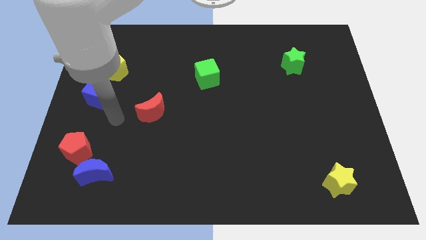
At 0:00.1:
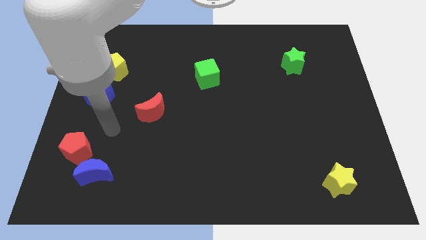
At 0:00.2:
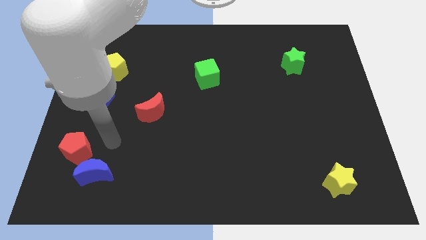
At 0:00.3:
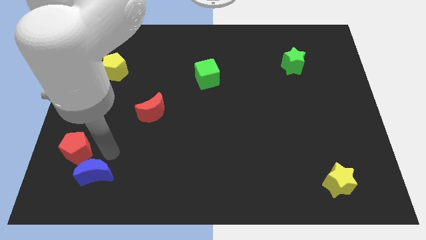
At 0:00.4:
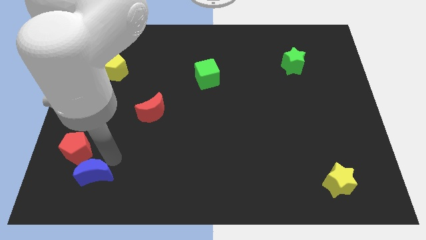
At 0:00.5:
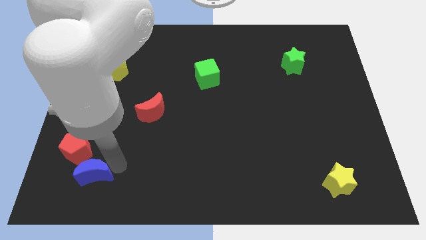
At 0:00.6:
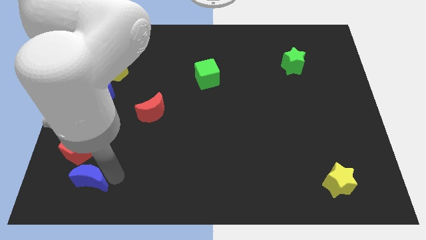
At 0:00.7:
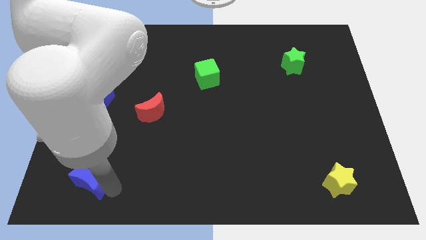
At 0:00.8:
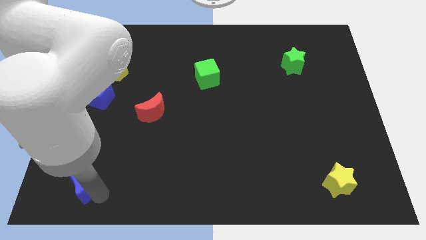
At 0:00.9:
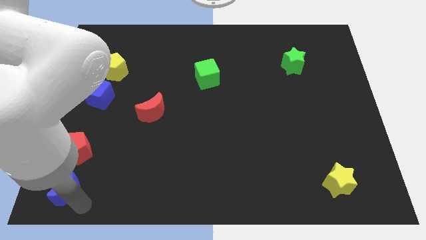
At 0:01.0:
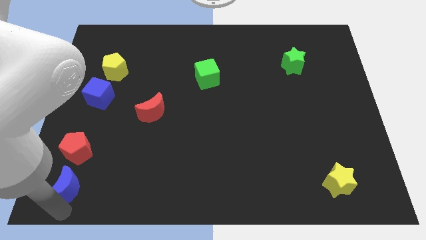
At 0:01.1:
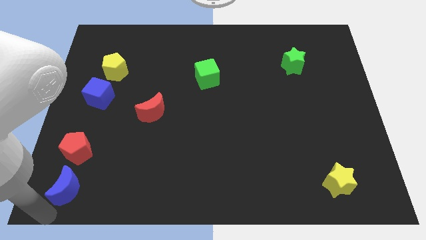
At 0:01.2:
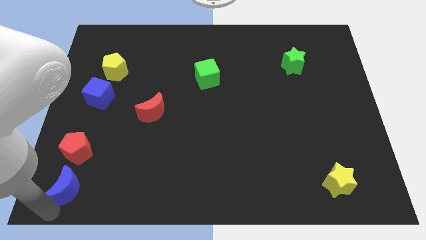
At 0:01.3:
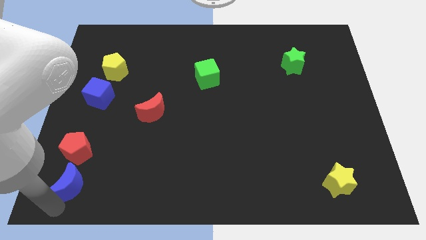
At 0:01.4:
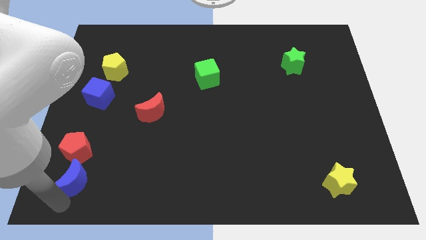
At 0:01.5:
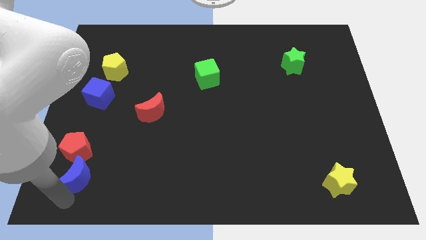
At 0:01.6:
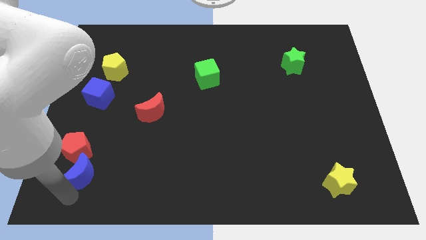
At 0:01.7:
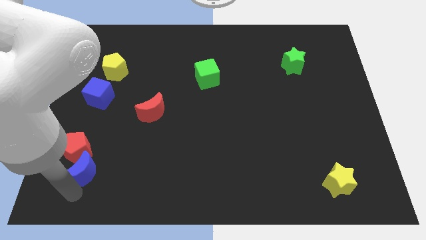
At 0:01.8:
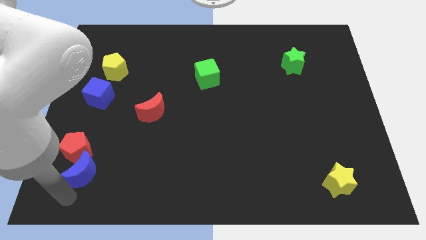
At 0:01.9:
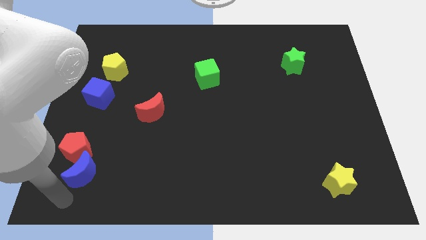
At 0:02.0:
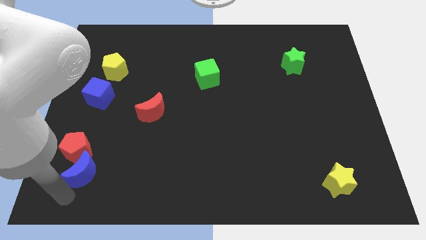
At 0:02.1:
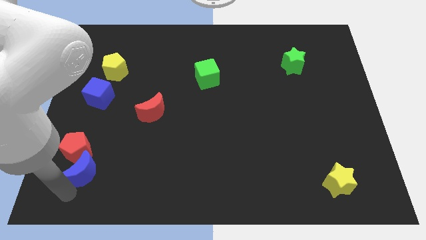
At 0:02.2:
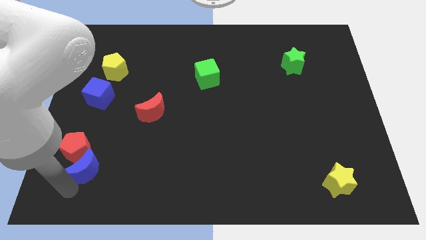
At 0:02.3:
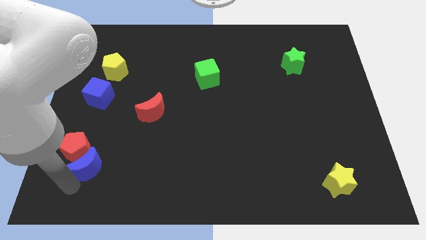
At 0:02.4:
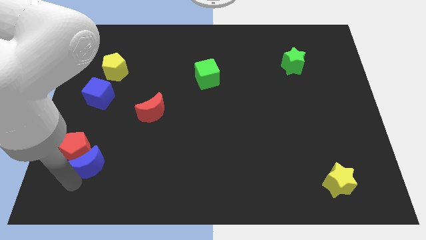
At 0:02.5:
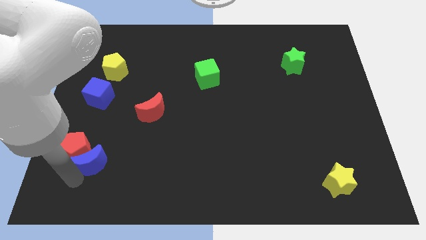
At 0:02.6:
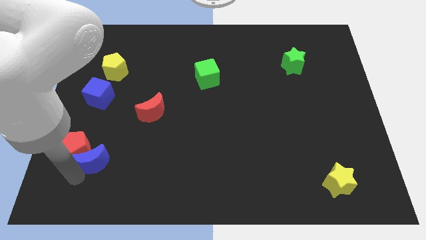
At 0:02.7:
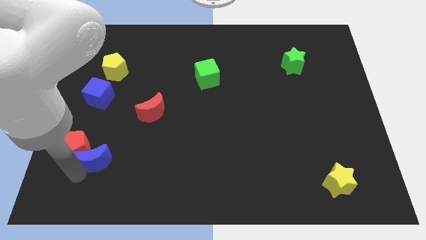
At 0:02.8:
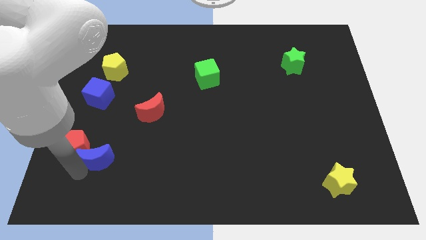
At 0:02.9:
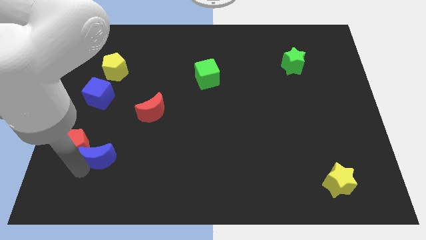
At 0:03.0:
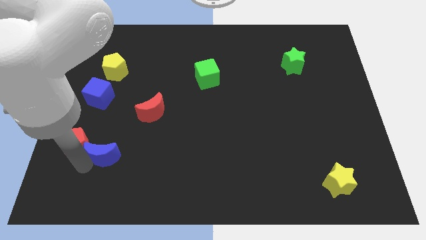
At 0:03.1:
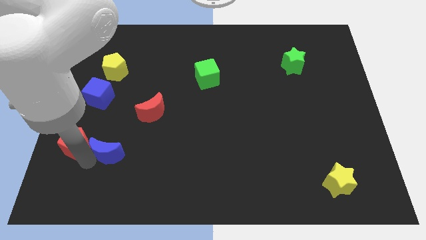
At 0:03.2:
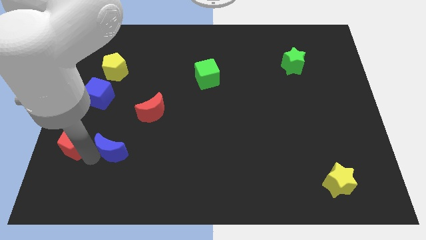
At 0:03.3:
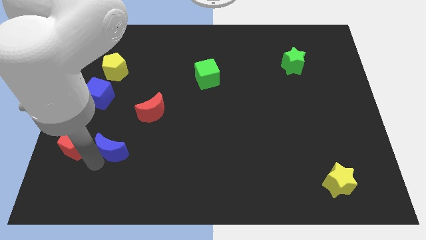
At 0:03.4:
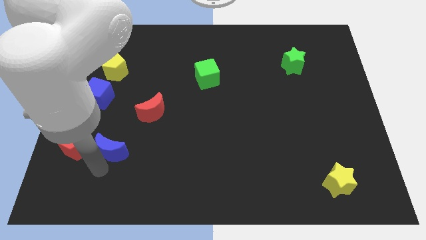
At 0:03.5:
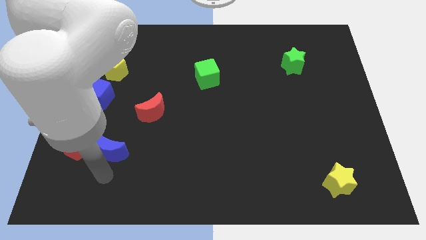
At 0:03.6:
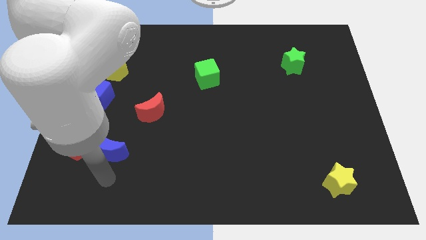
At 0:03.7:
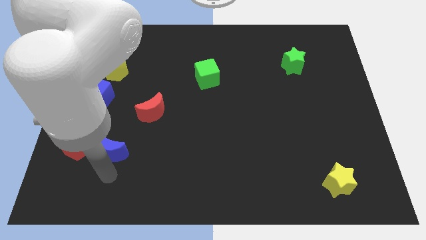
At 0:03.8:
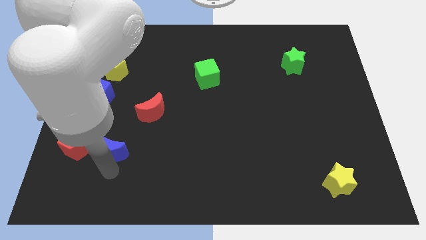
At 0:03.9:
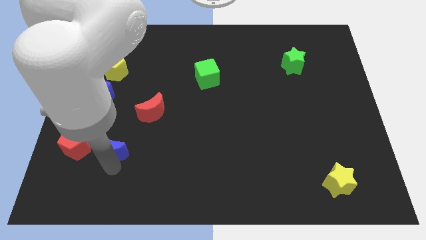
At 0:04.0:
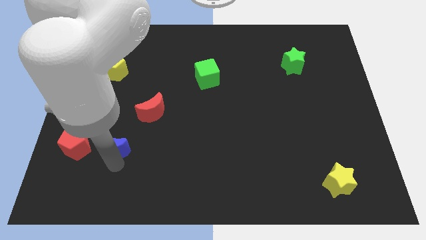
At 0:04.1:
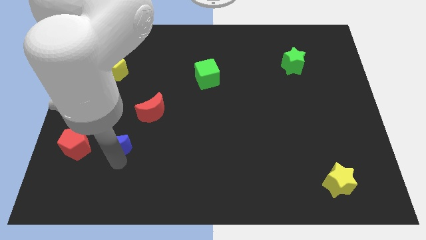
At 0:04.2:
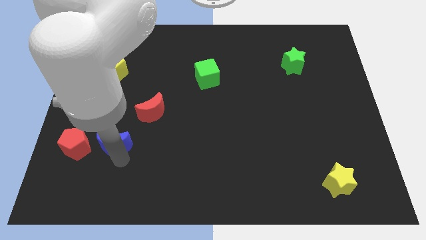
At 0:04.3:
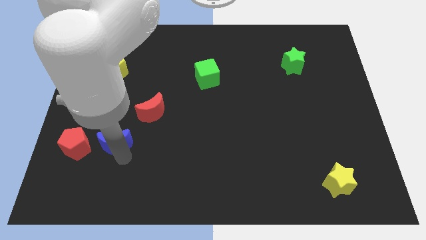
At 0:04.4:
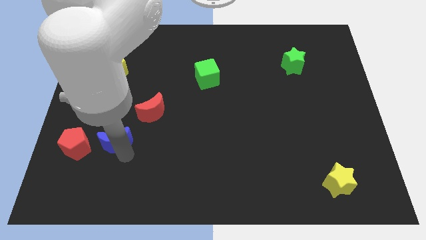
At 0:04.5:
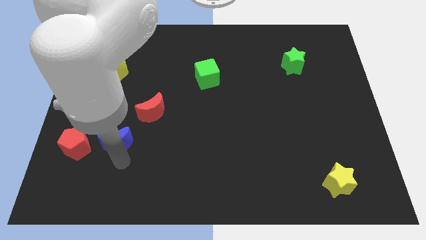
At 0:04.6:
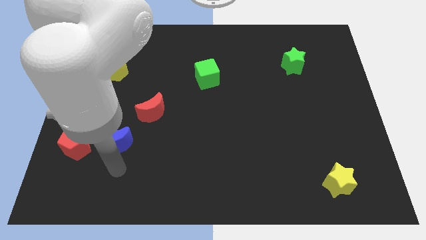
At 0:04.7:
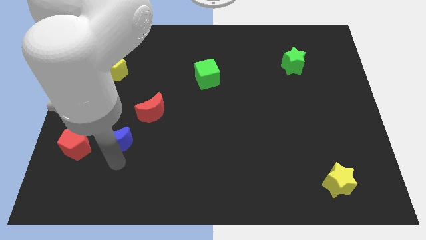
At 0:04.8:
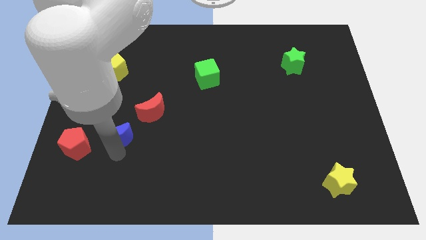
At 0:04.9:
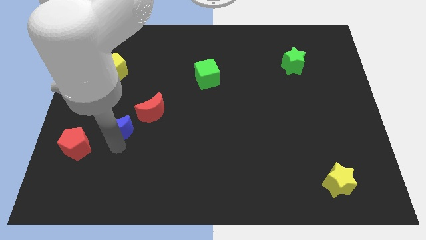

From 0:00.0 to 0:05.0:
push the blue moon to the bottom right side of the blue cube

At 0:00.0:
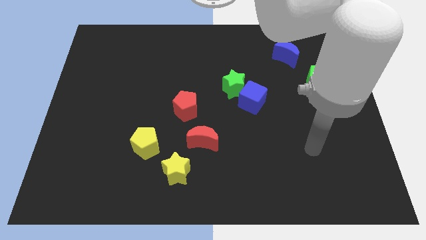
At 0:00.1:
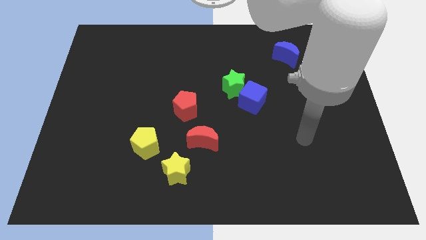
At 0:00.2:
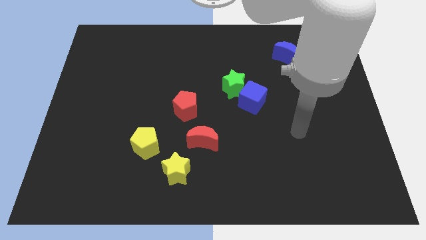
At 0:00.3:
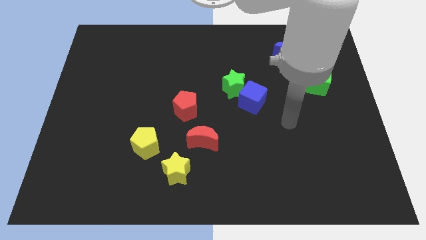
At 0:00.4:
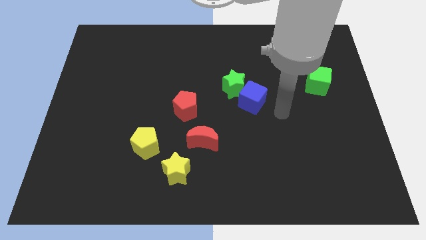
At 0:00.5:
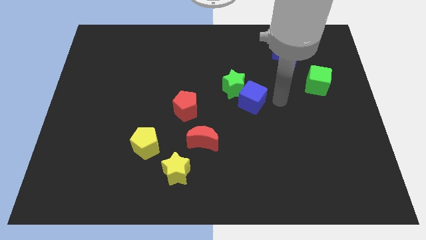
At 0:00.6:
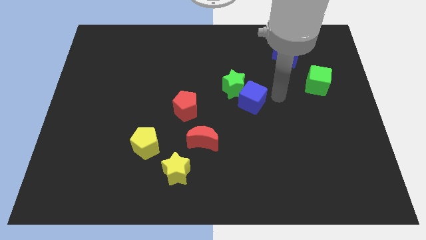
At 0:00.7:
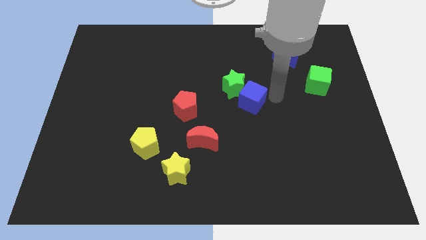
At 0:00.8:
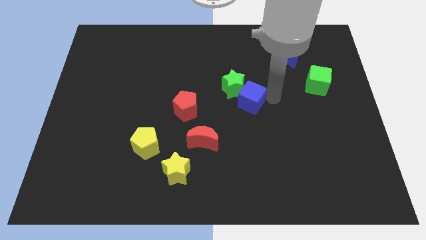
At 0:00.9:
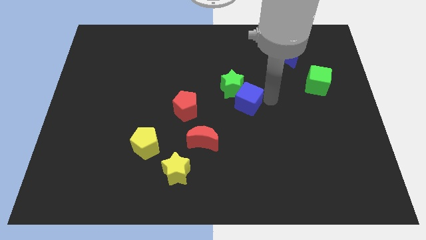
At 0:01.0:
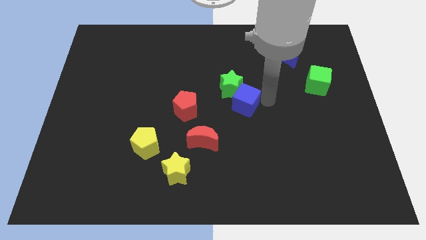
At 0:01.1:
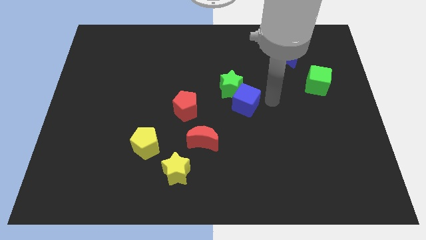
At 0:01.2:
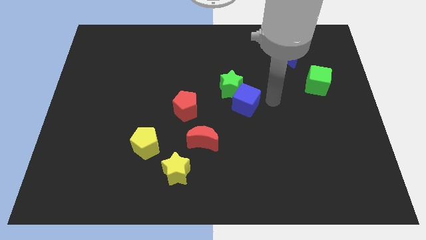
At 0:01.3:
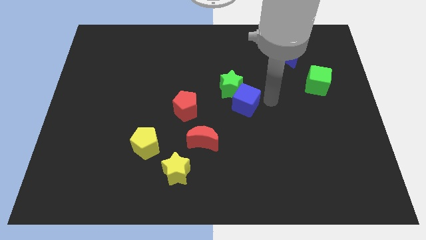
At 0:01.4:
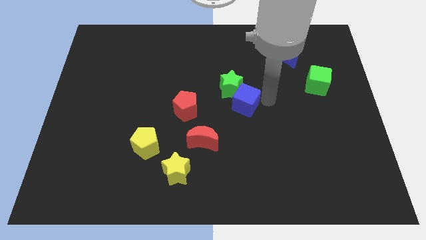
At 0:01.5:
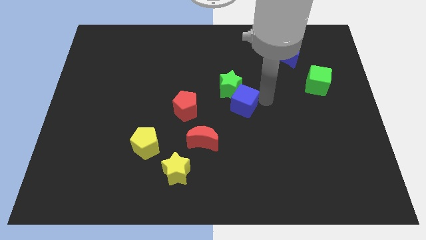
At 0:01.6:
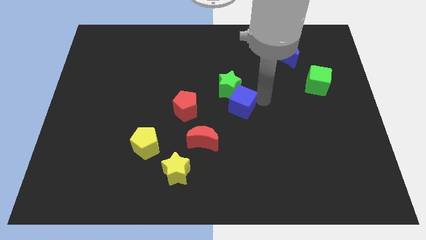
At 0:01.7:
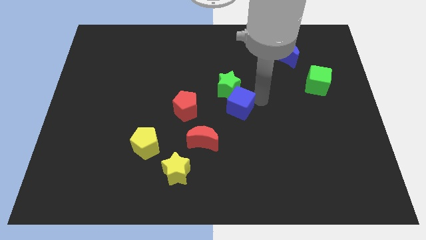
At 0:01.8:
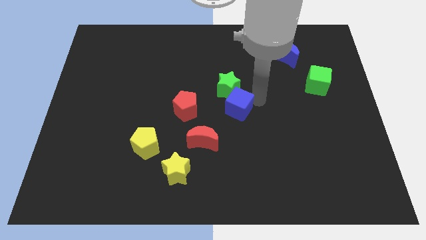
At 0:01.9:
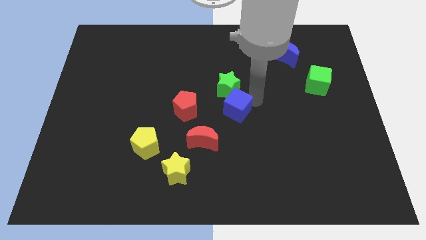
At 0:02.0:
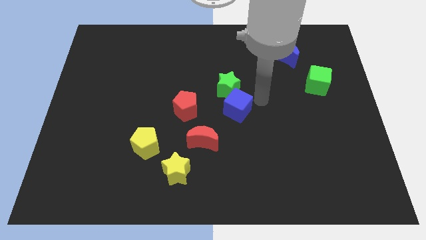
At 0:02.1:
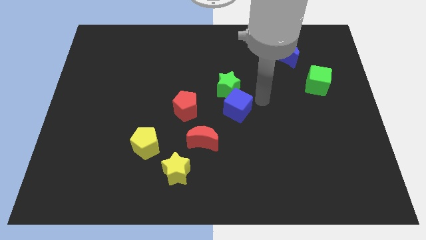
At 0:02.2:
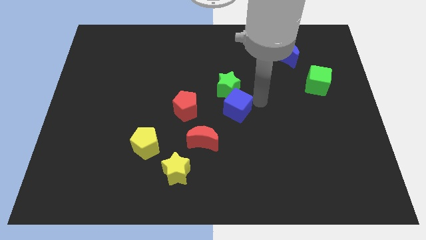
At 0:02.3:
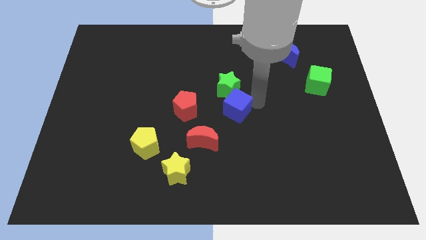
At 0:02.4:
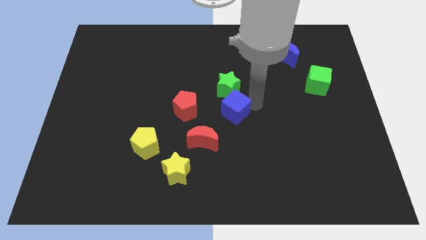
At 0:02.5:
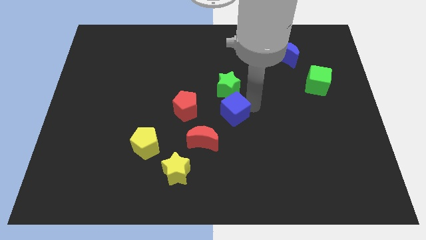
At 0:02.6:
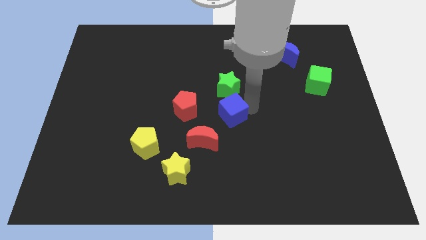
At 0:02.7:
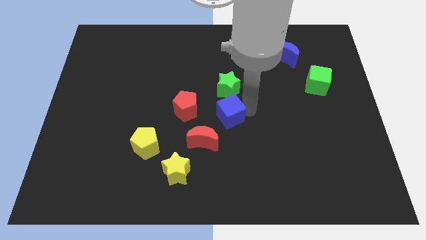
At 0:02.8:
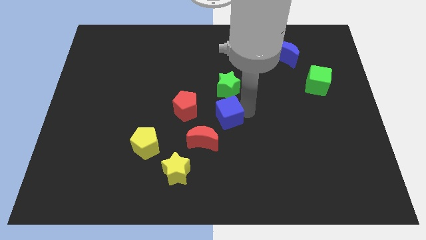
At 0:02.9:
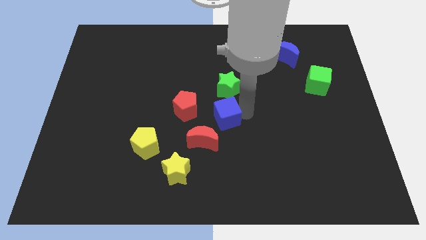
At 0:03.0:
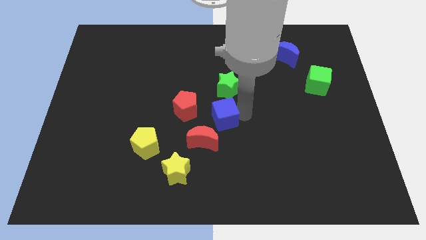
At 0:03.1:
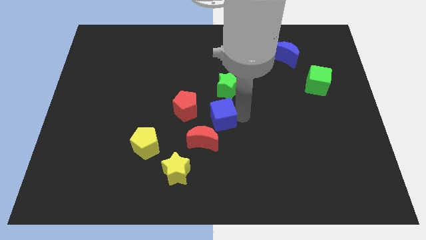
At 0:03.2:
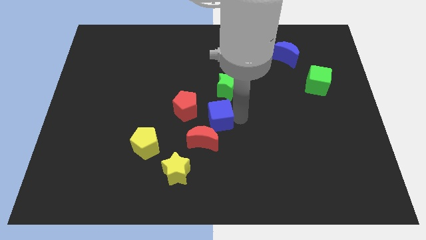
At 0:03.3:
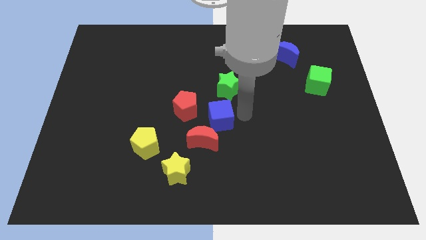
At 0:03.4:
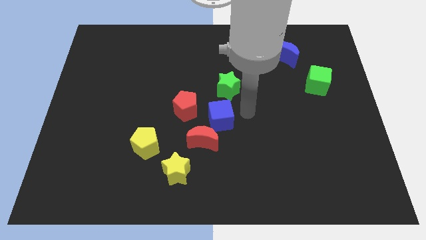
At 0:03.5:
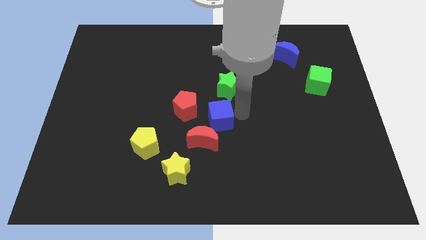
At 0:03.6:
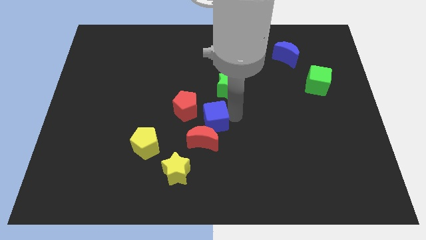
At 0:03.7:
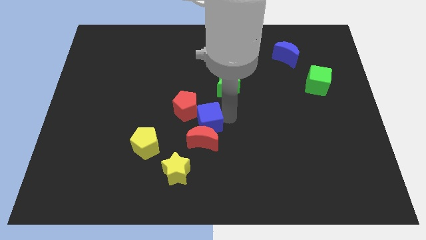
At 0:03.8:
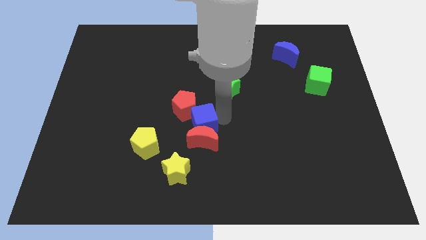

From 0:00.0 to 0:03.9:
move the blue cube below the red pentagon
